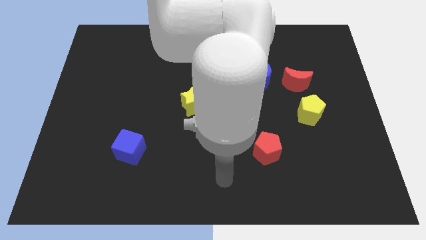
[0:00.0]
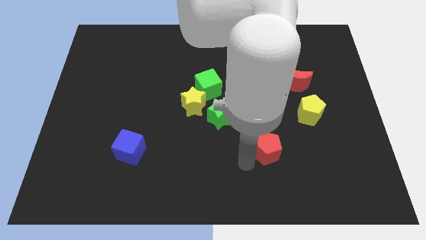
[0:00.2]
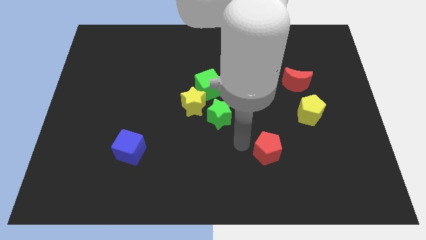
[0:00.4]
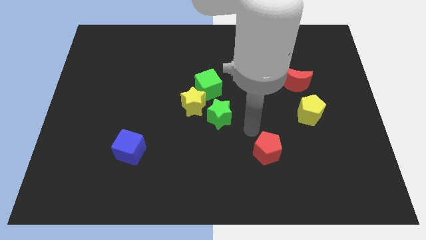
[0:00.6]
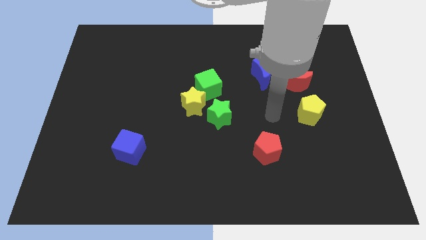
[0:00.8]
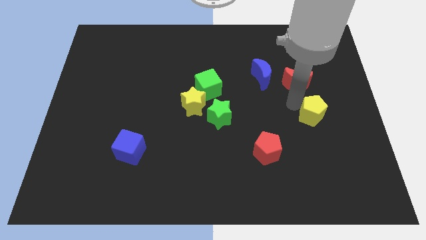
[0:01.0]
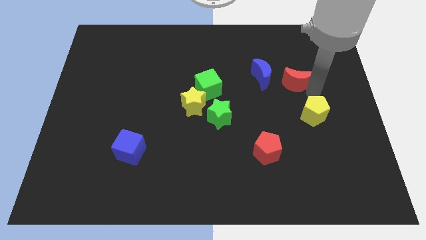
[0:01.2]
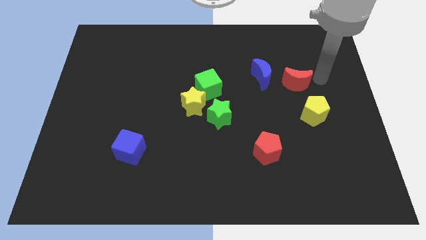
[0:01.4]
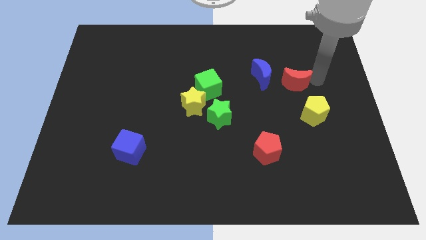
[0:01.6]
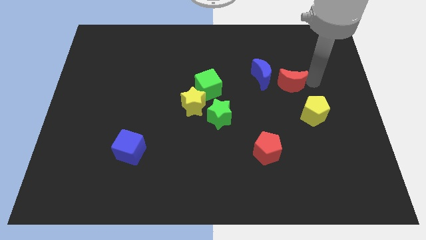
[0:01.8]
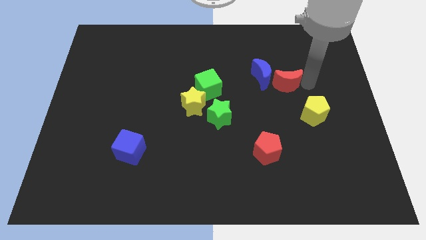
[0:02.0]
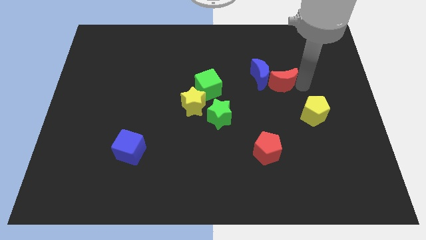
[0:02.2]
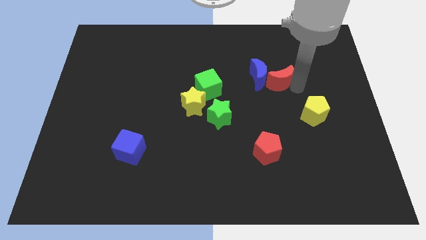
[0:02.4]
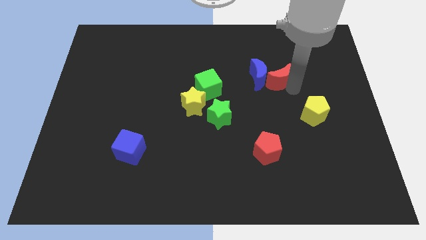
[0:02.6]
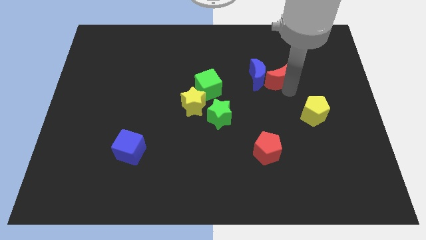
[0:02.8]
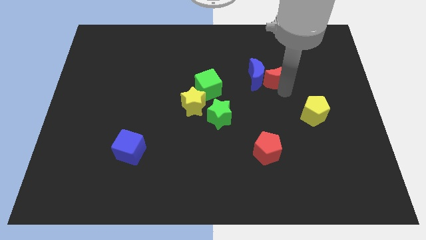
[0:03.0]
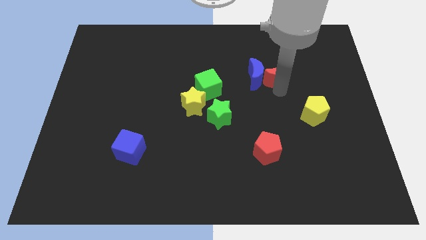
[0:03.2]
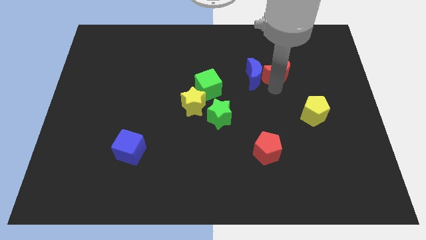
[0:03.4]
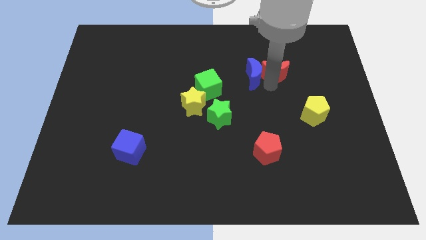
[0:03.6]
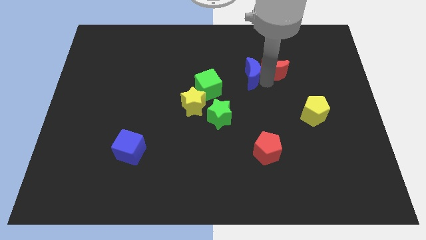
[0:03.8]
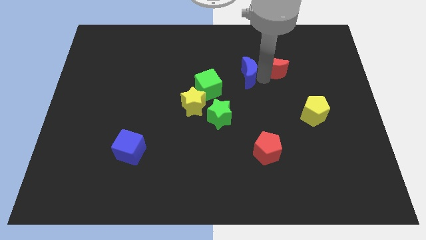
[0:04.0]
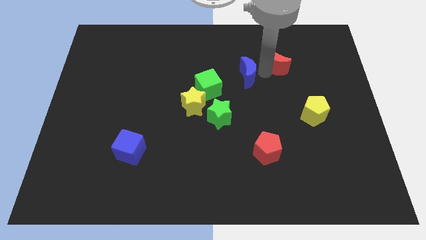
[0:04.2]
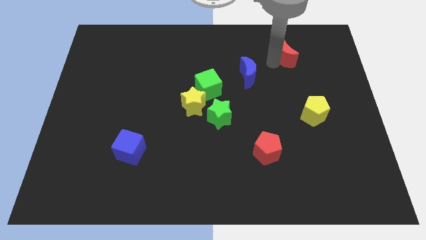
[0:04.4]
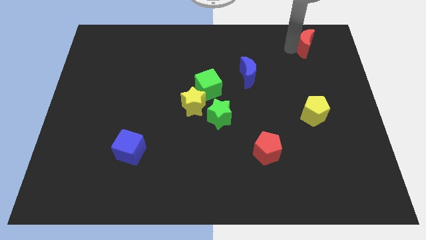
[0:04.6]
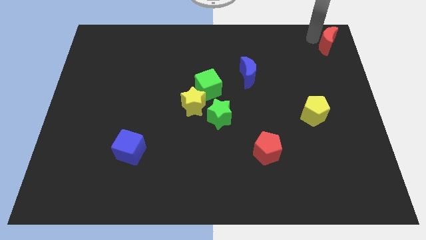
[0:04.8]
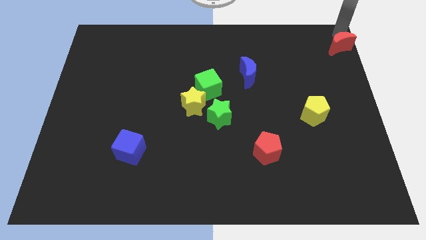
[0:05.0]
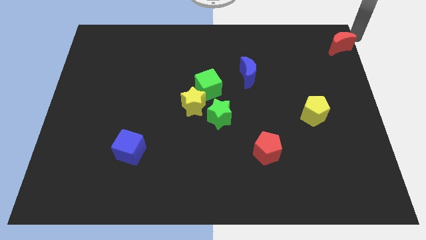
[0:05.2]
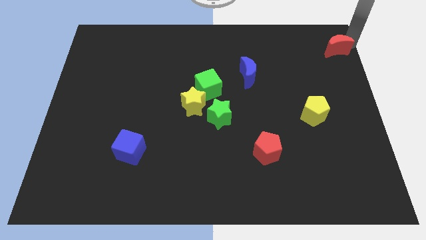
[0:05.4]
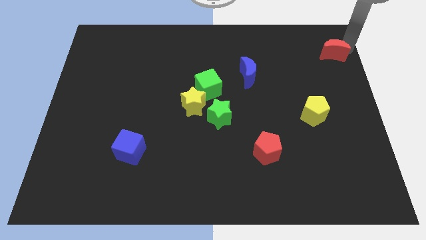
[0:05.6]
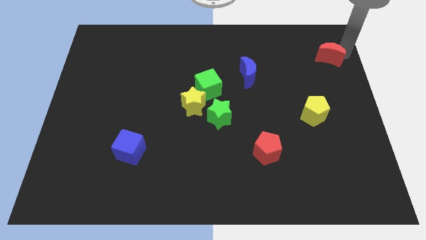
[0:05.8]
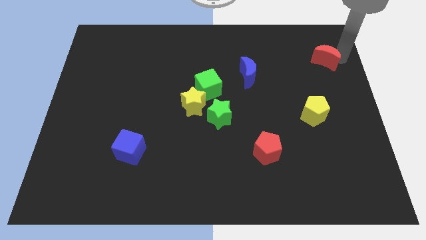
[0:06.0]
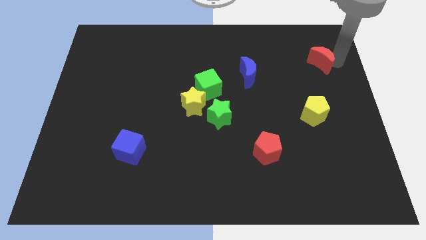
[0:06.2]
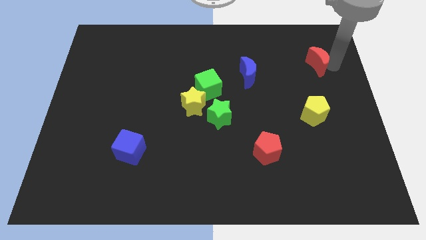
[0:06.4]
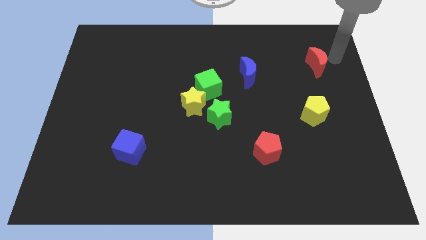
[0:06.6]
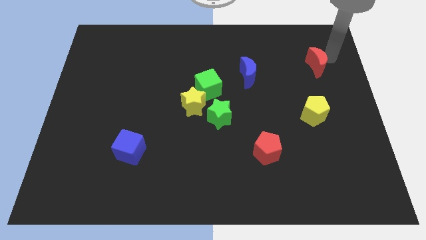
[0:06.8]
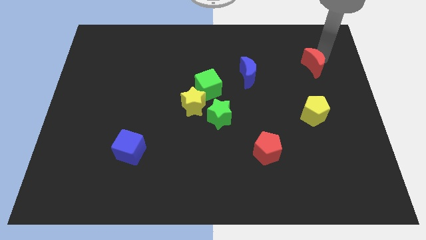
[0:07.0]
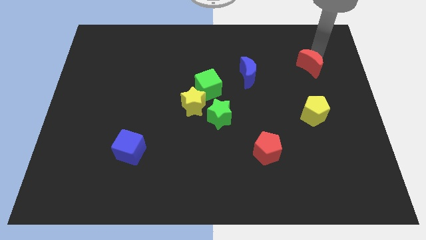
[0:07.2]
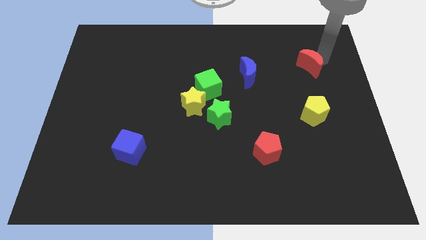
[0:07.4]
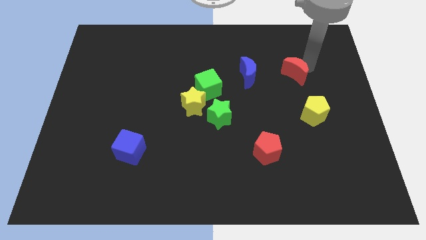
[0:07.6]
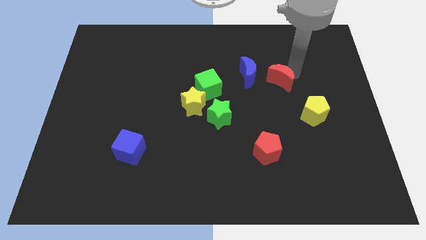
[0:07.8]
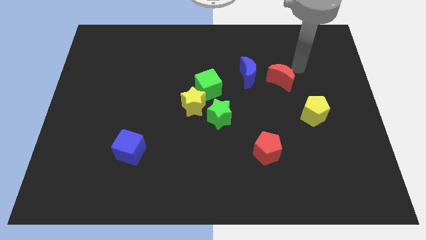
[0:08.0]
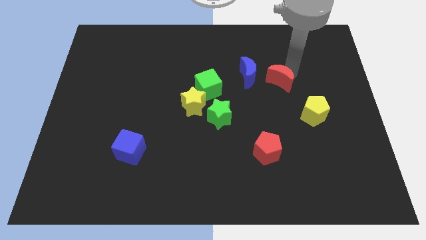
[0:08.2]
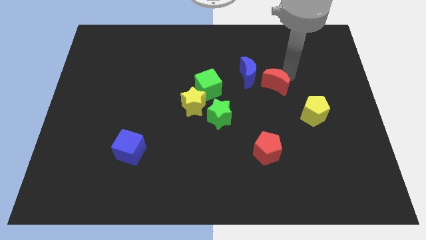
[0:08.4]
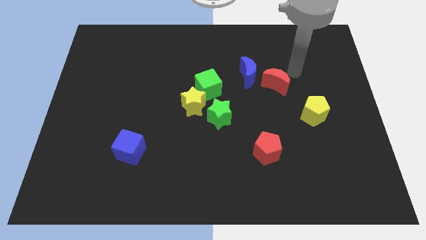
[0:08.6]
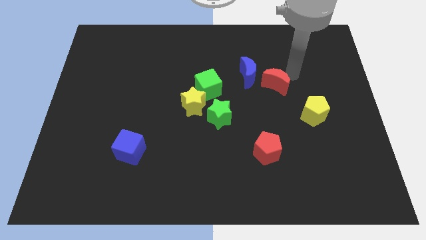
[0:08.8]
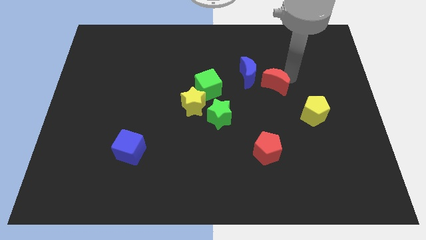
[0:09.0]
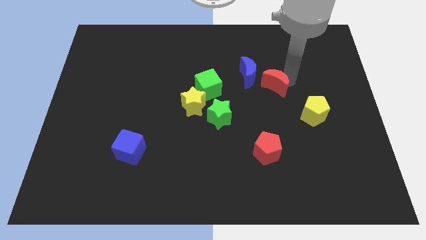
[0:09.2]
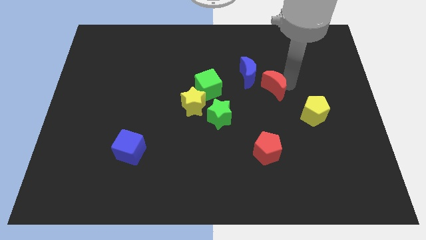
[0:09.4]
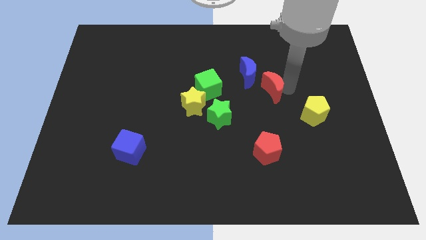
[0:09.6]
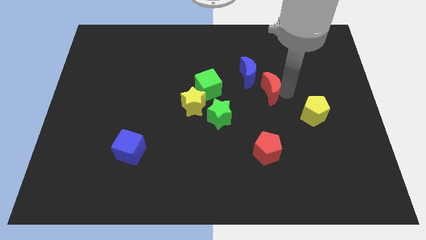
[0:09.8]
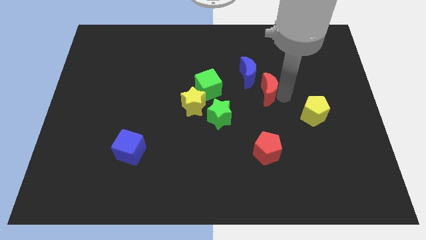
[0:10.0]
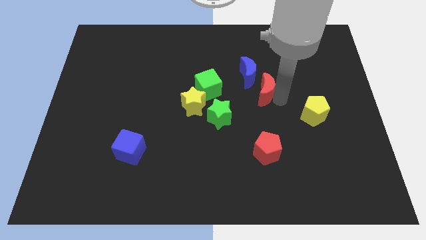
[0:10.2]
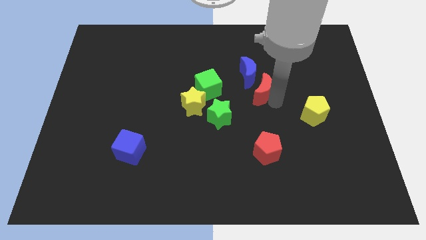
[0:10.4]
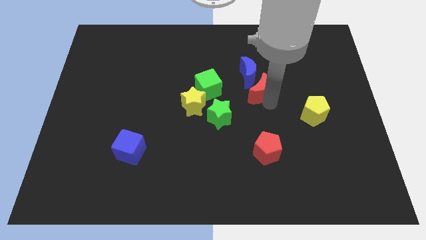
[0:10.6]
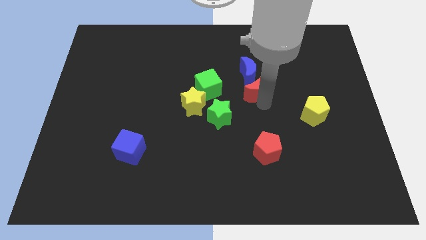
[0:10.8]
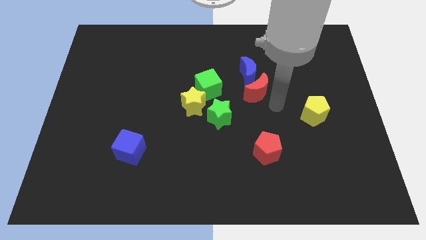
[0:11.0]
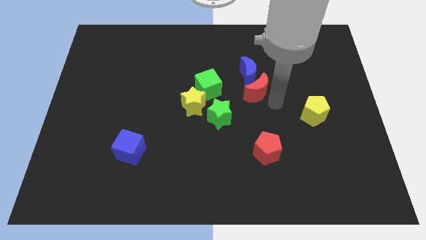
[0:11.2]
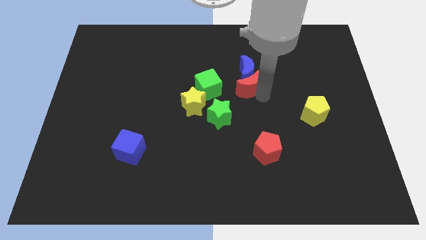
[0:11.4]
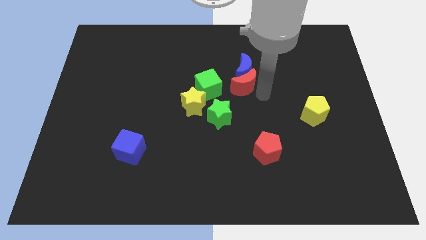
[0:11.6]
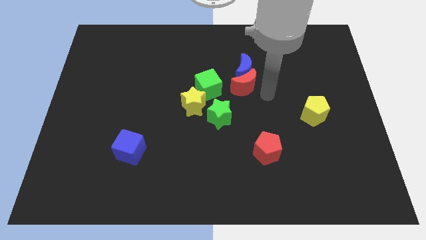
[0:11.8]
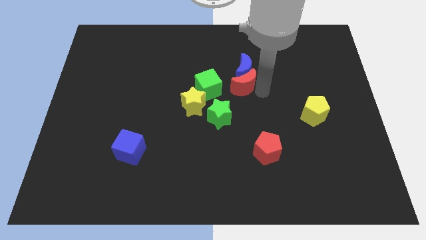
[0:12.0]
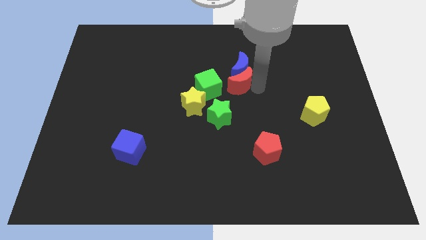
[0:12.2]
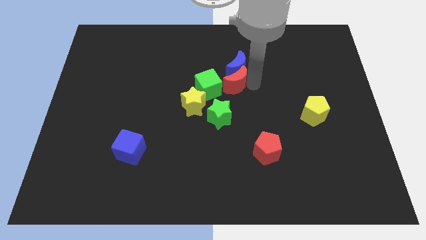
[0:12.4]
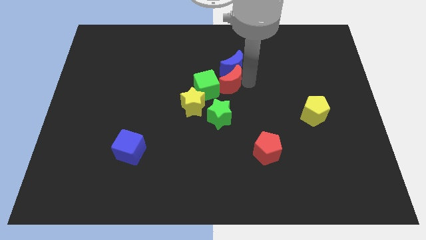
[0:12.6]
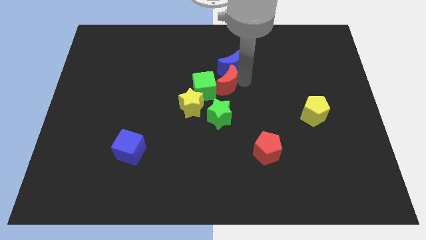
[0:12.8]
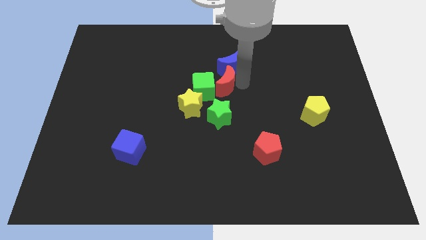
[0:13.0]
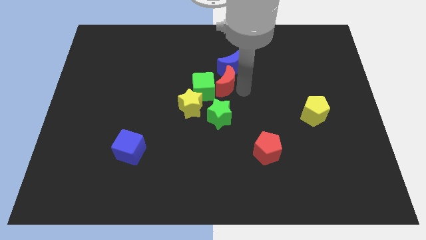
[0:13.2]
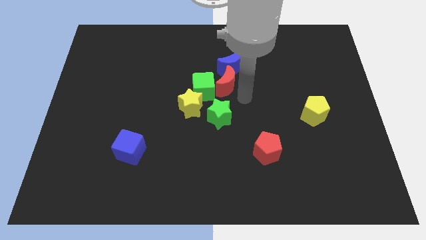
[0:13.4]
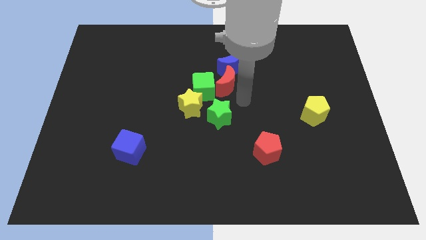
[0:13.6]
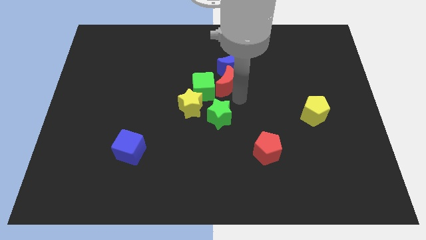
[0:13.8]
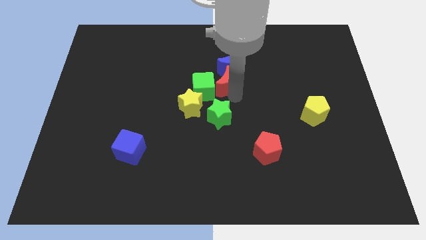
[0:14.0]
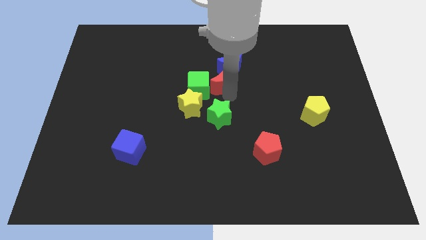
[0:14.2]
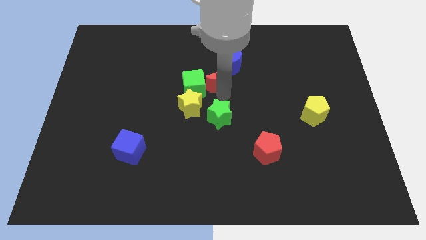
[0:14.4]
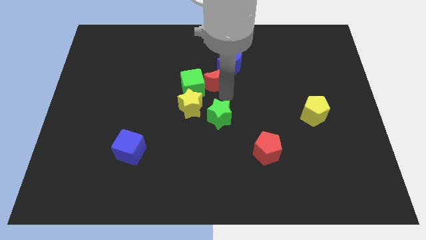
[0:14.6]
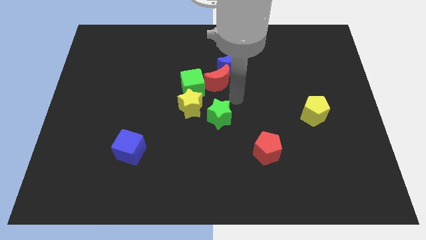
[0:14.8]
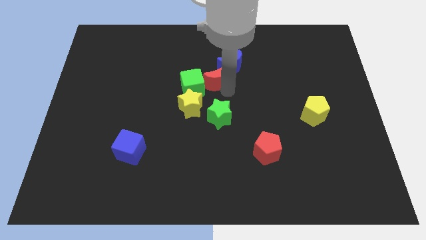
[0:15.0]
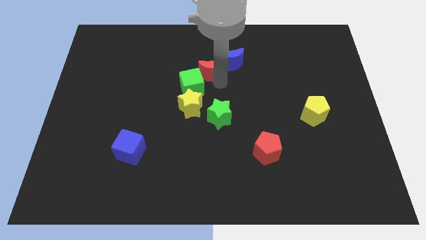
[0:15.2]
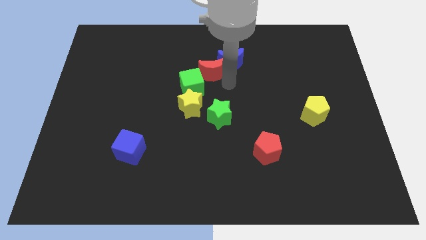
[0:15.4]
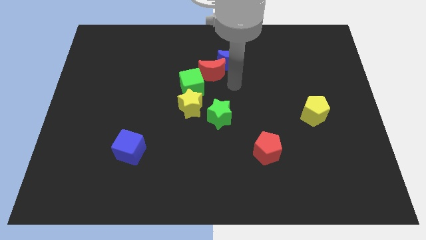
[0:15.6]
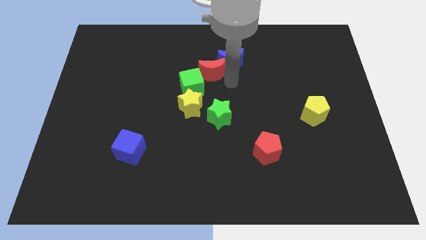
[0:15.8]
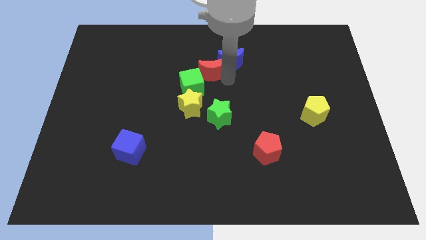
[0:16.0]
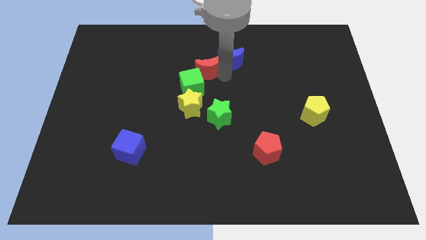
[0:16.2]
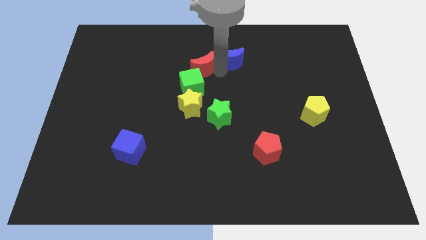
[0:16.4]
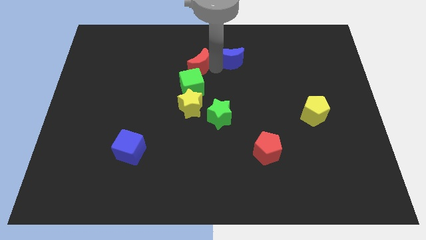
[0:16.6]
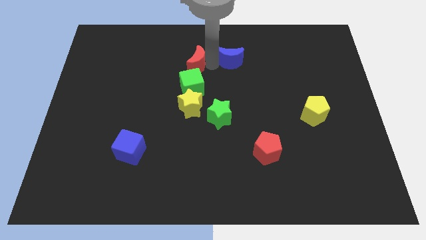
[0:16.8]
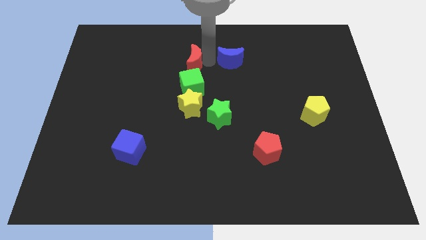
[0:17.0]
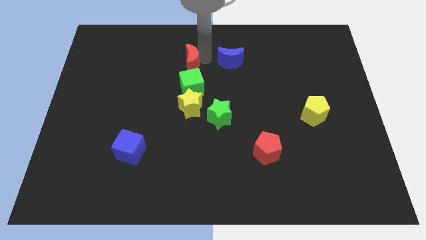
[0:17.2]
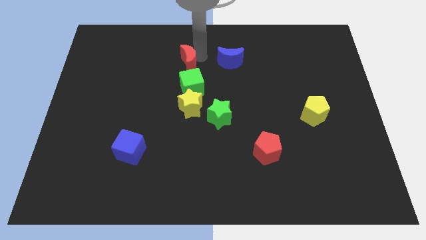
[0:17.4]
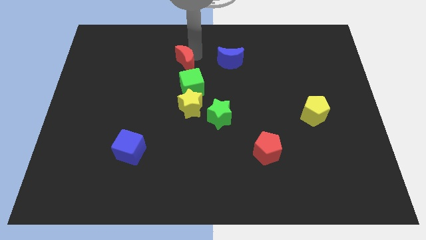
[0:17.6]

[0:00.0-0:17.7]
move the red moon to the top left of the green cube
